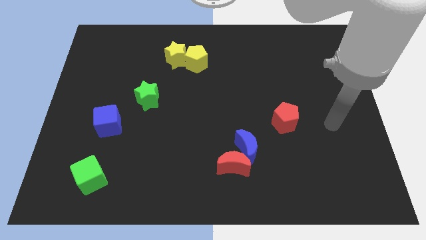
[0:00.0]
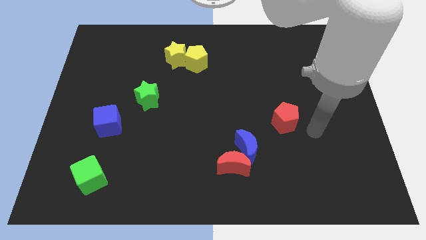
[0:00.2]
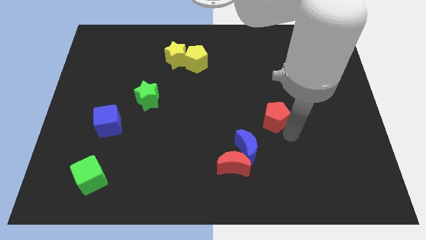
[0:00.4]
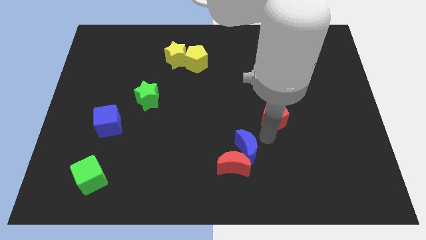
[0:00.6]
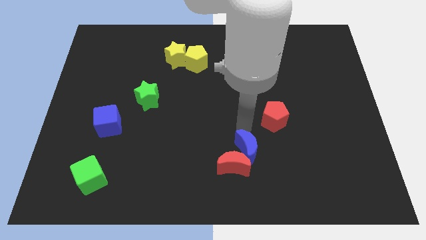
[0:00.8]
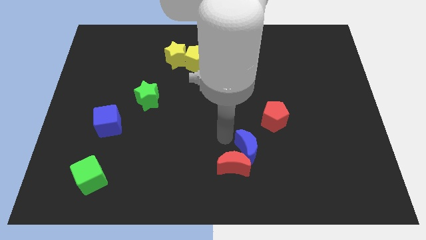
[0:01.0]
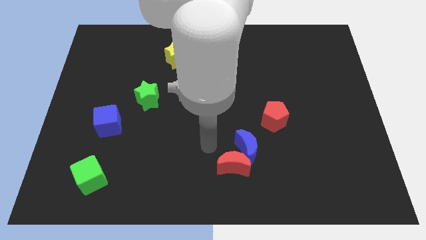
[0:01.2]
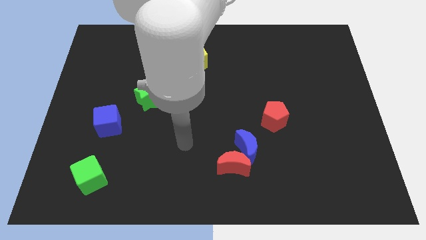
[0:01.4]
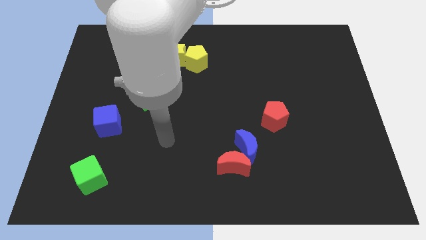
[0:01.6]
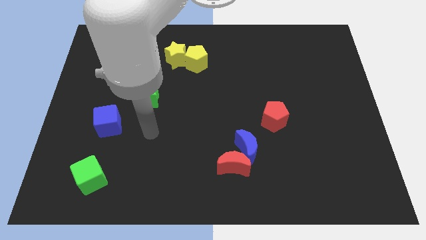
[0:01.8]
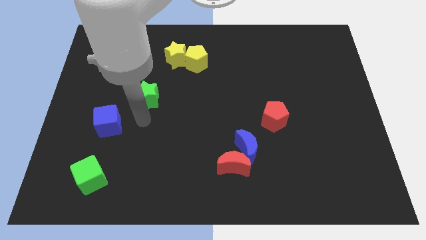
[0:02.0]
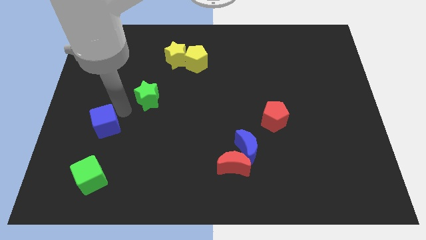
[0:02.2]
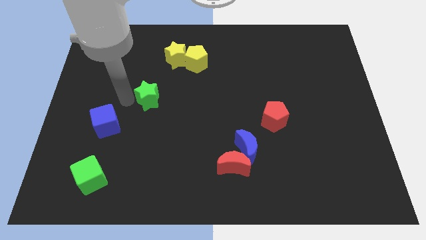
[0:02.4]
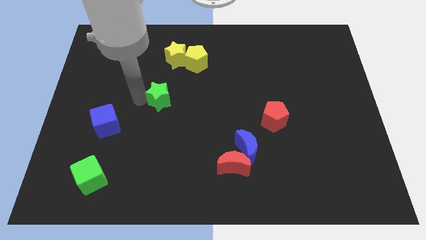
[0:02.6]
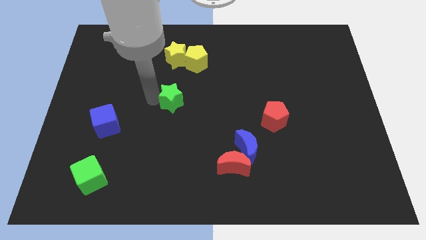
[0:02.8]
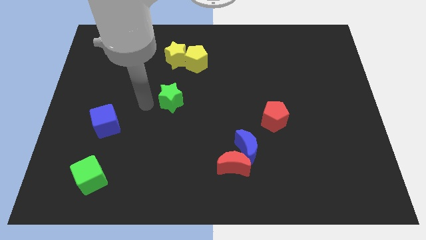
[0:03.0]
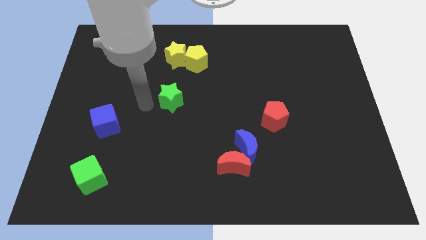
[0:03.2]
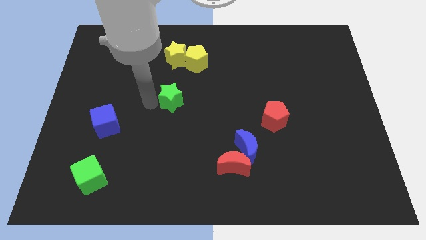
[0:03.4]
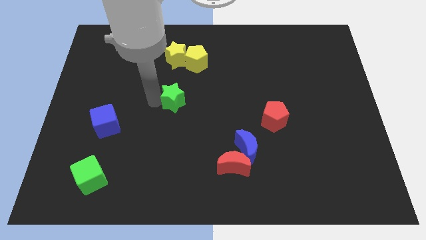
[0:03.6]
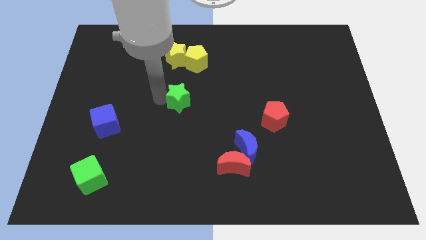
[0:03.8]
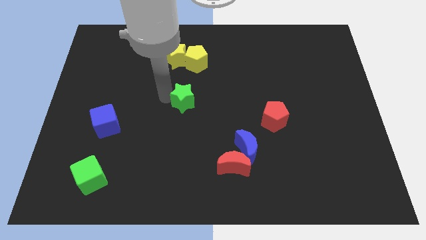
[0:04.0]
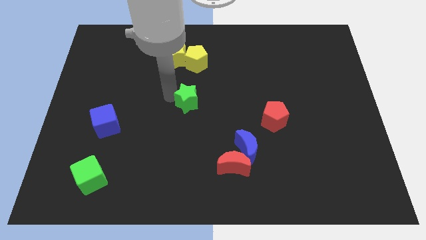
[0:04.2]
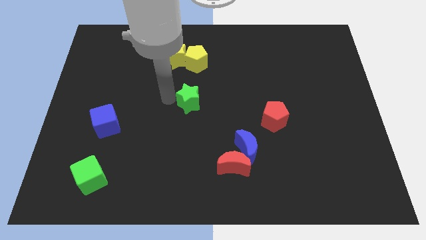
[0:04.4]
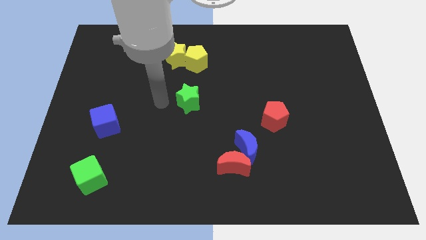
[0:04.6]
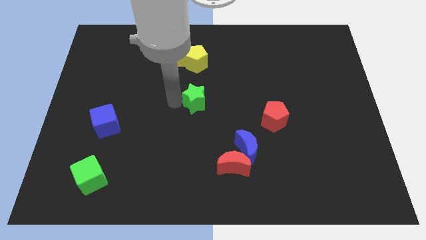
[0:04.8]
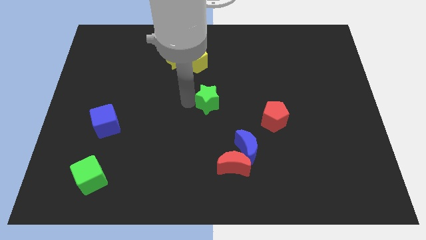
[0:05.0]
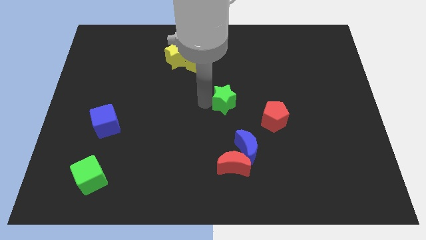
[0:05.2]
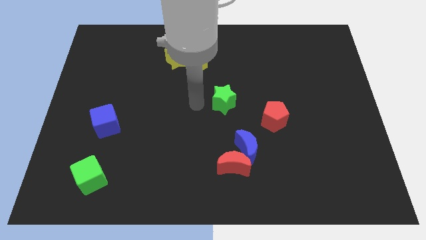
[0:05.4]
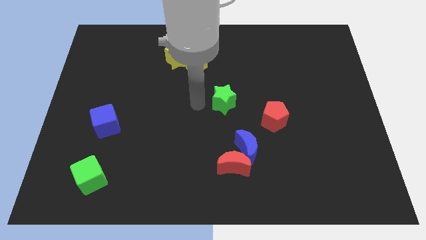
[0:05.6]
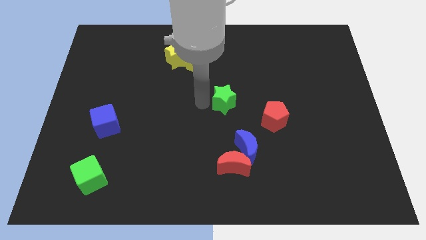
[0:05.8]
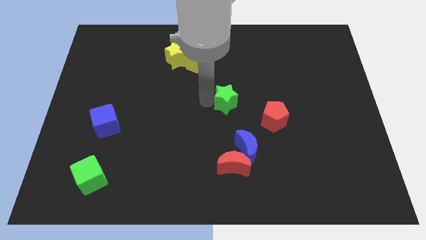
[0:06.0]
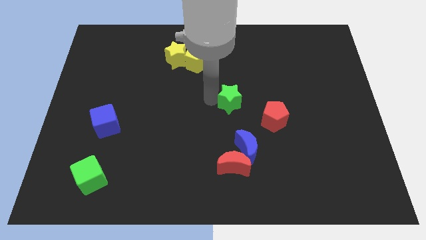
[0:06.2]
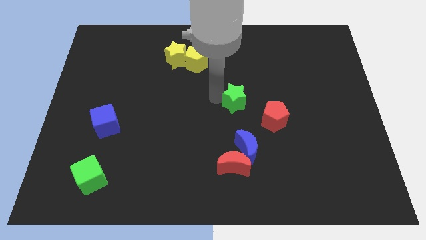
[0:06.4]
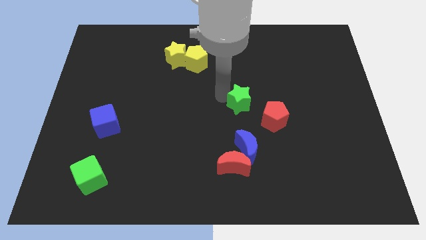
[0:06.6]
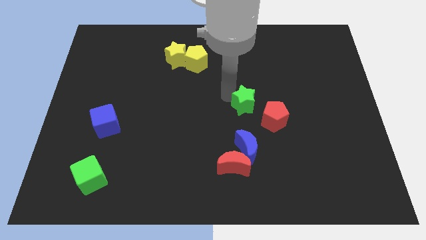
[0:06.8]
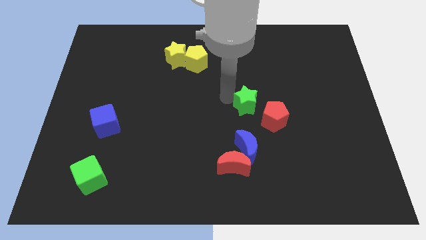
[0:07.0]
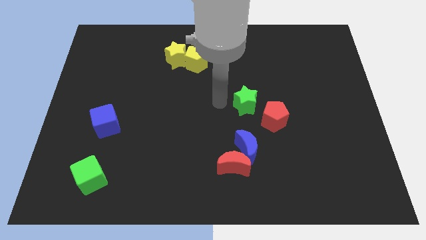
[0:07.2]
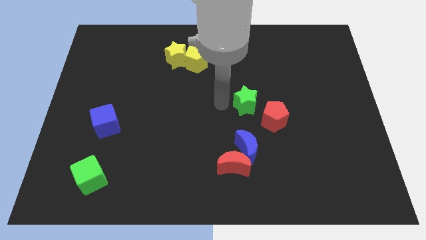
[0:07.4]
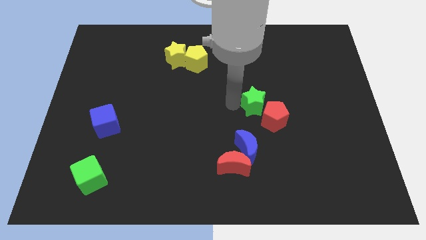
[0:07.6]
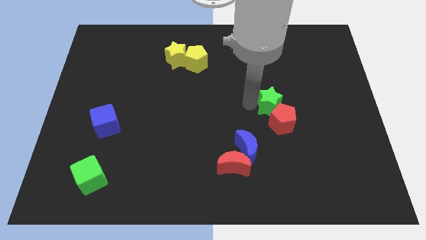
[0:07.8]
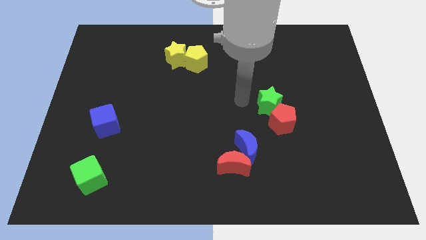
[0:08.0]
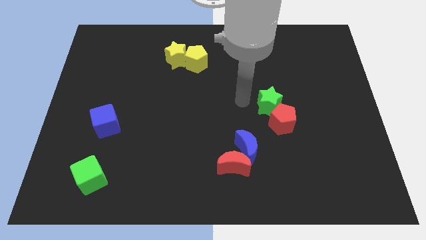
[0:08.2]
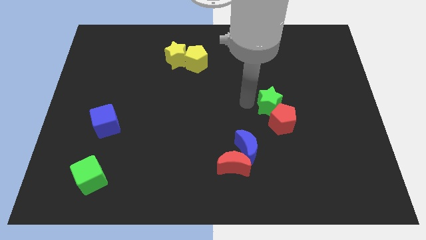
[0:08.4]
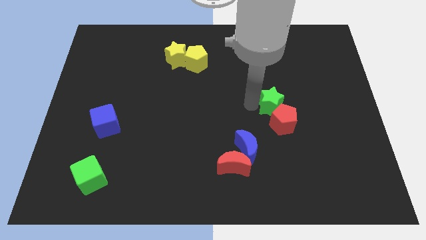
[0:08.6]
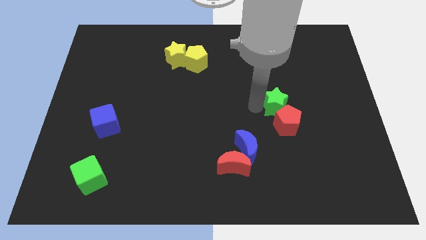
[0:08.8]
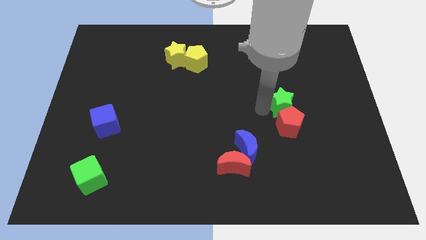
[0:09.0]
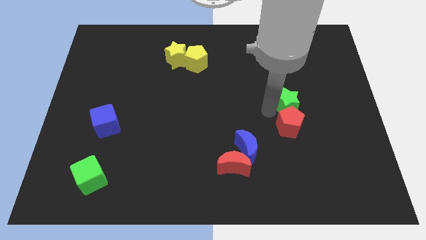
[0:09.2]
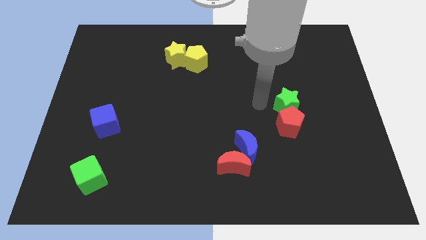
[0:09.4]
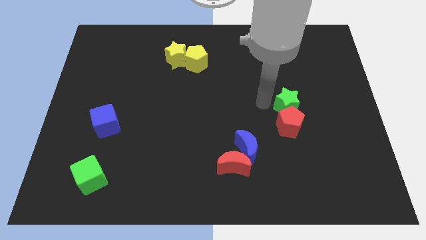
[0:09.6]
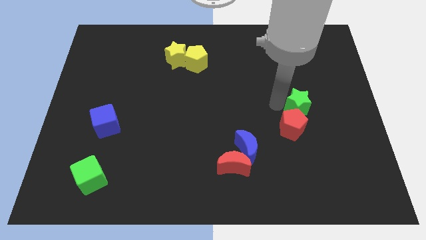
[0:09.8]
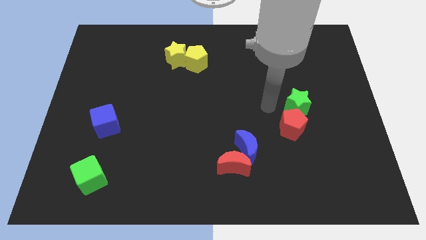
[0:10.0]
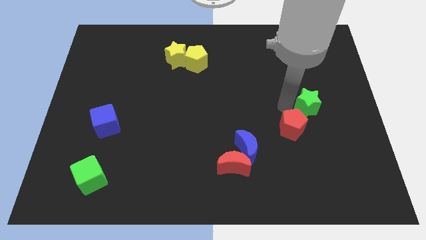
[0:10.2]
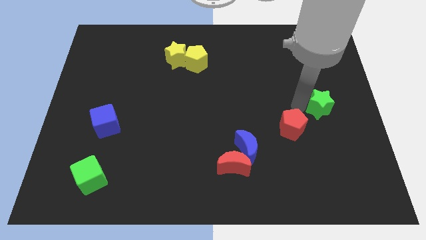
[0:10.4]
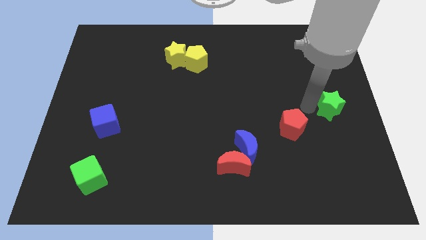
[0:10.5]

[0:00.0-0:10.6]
slide the green star to the right side

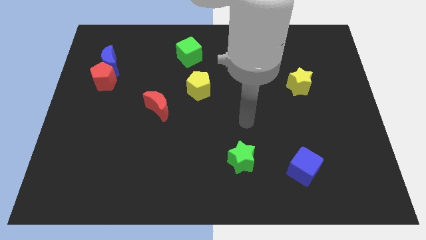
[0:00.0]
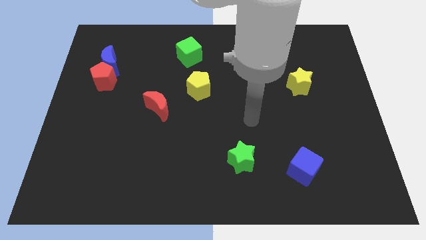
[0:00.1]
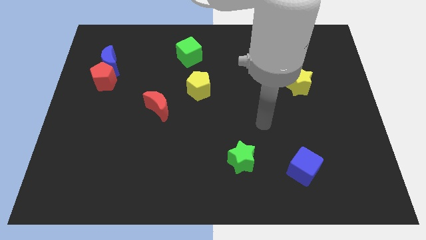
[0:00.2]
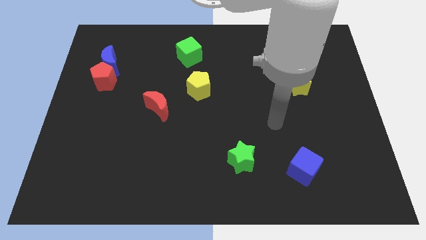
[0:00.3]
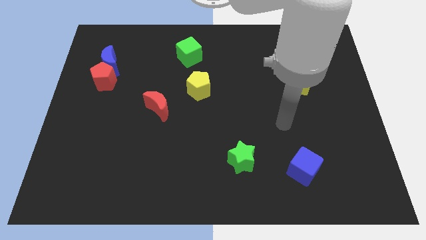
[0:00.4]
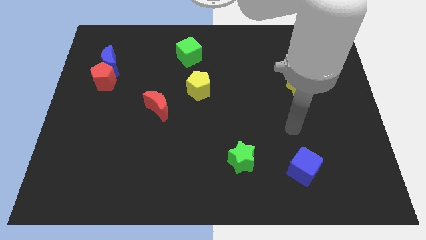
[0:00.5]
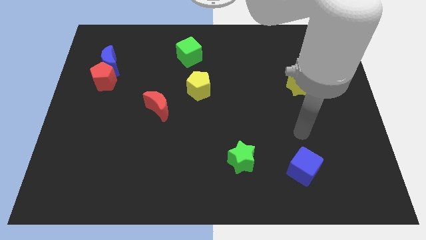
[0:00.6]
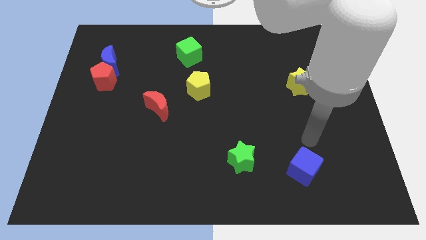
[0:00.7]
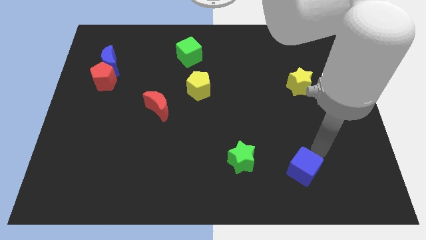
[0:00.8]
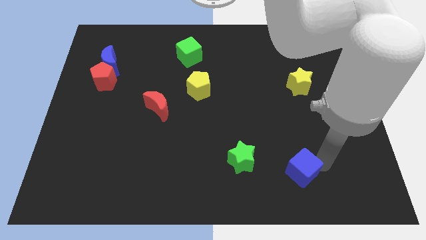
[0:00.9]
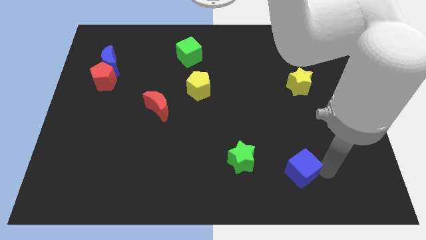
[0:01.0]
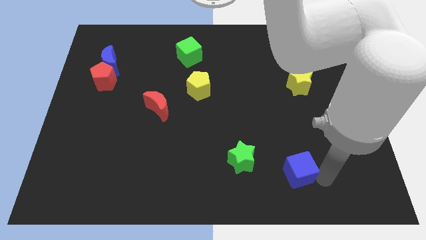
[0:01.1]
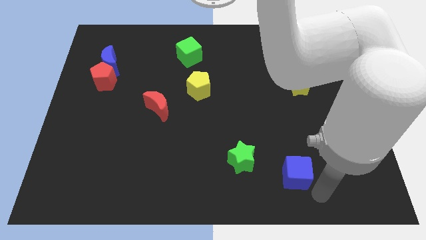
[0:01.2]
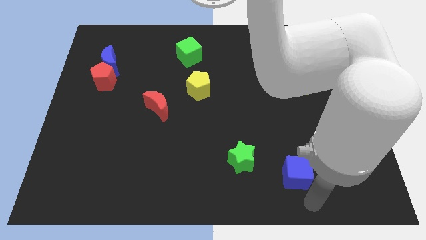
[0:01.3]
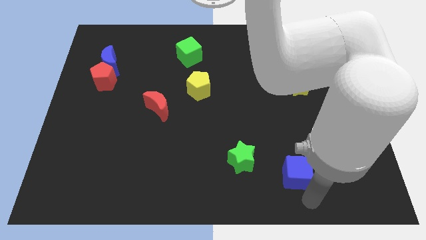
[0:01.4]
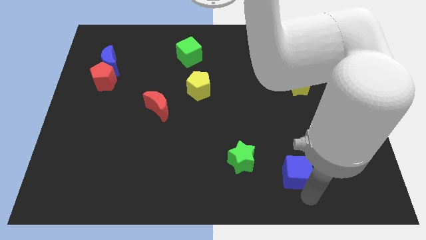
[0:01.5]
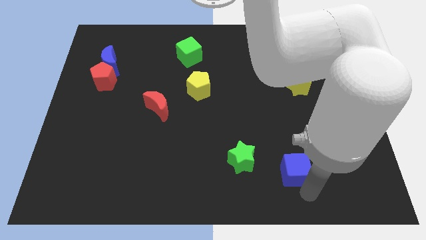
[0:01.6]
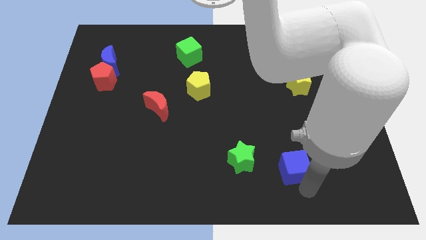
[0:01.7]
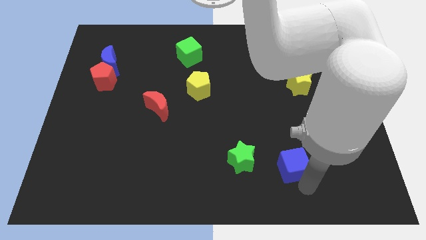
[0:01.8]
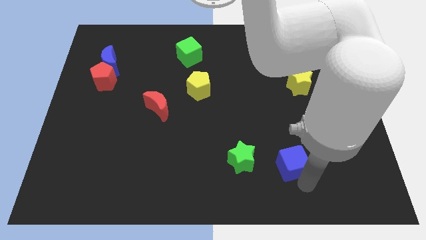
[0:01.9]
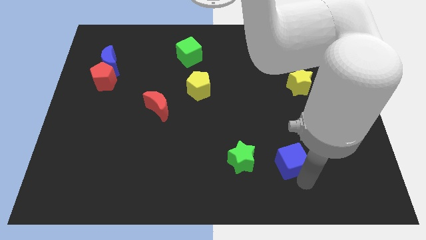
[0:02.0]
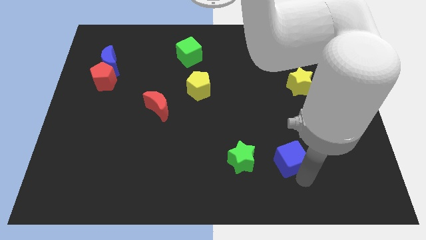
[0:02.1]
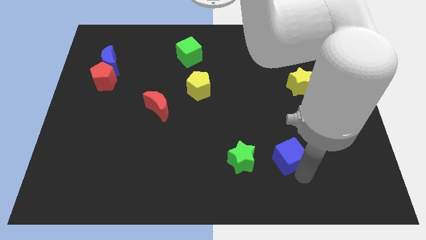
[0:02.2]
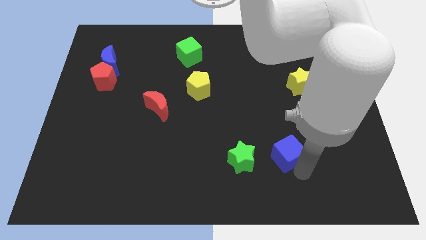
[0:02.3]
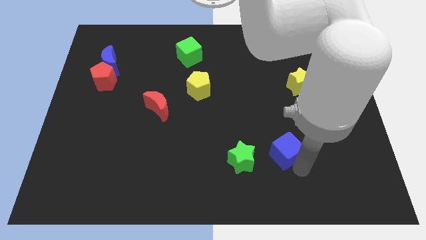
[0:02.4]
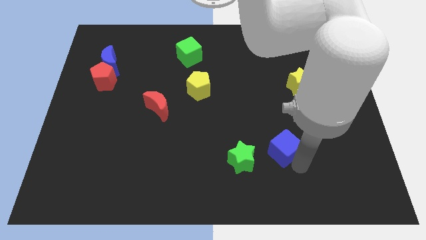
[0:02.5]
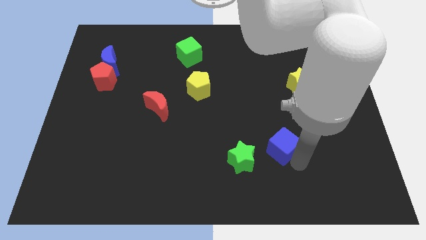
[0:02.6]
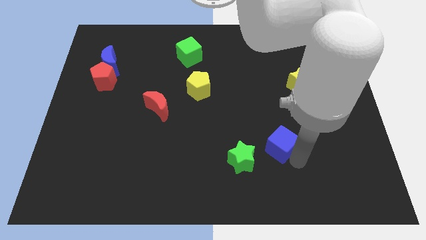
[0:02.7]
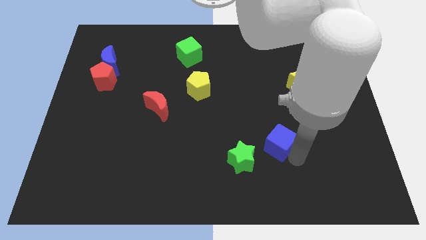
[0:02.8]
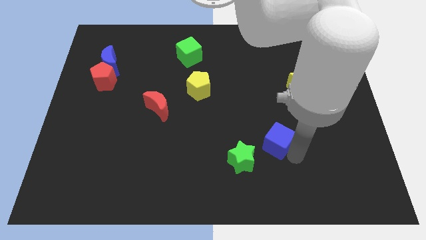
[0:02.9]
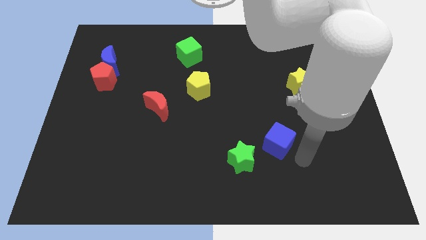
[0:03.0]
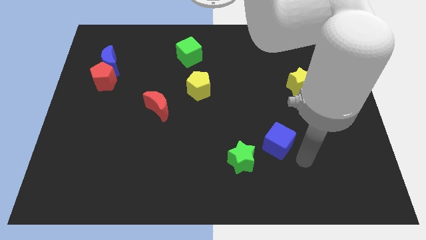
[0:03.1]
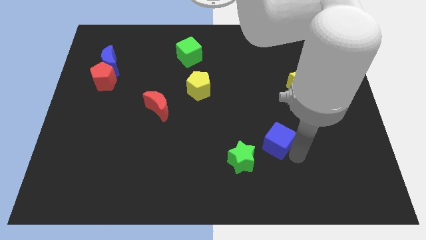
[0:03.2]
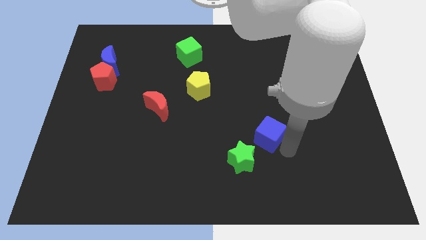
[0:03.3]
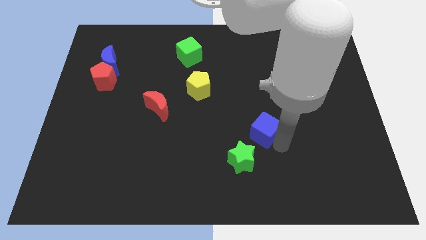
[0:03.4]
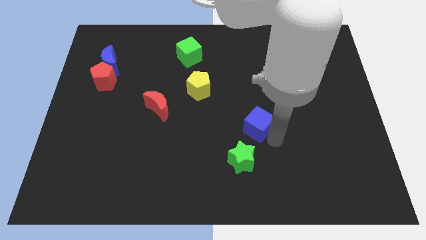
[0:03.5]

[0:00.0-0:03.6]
push the blue cube to the center of the board
